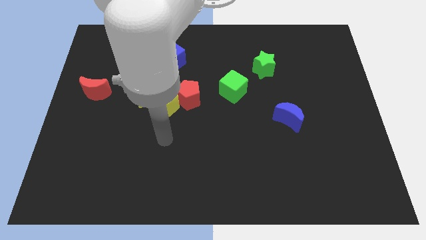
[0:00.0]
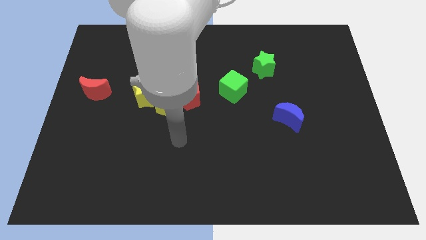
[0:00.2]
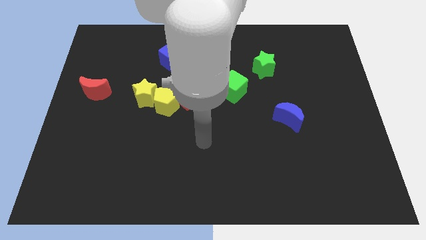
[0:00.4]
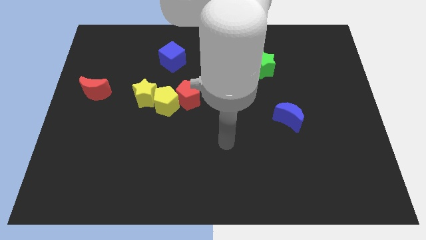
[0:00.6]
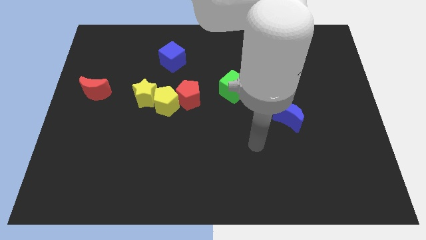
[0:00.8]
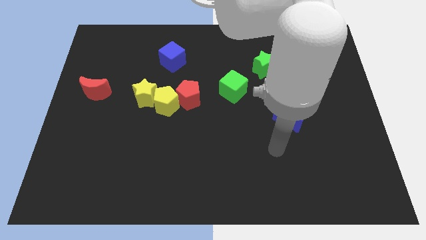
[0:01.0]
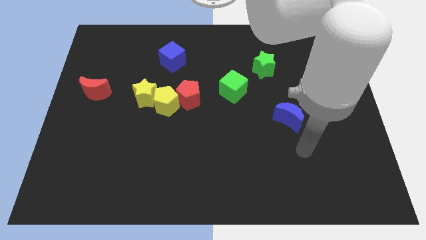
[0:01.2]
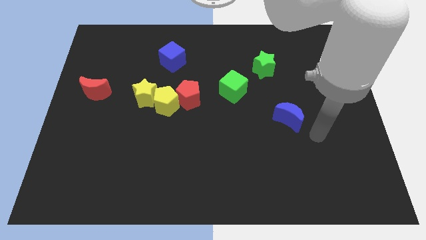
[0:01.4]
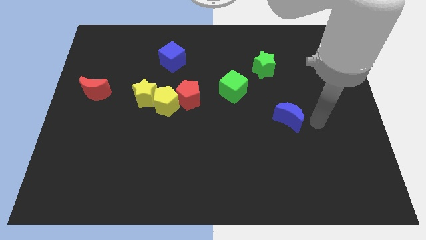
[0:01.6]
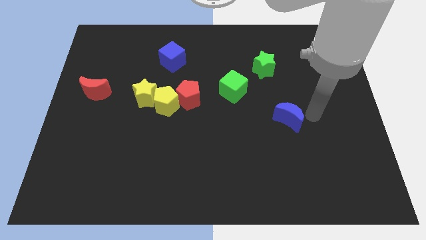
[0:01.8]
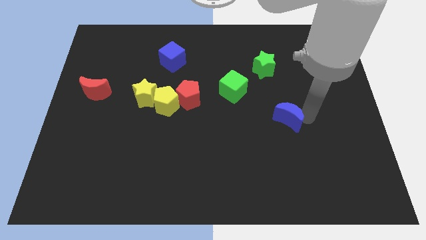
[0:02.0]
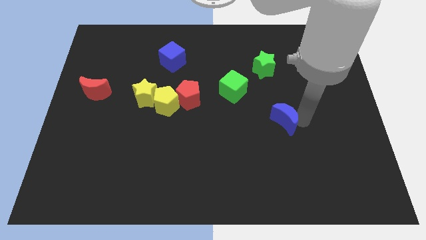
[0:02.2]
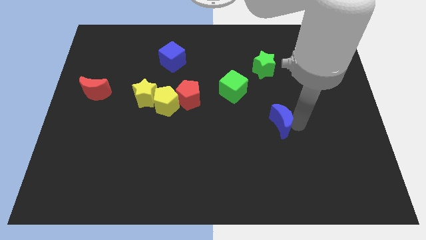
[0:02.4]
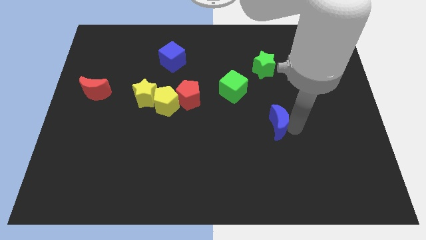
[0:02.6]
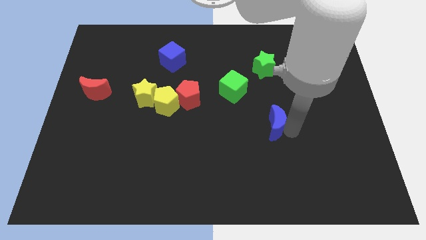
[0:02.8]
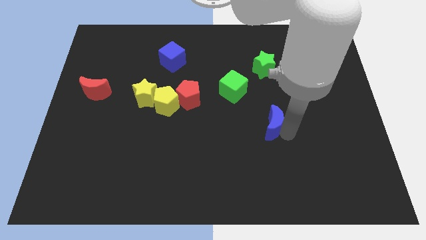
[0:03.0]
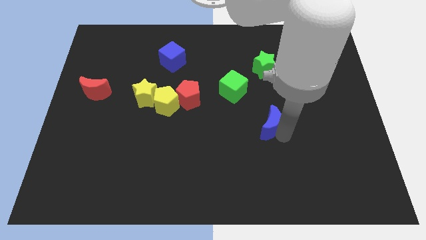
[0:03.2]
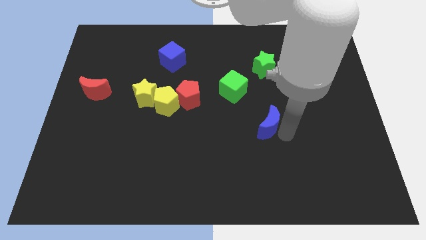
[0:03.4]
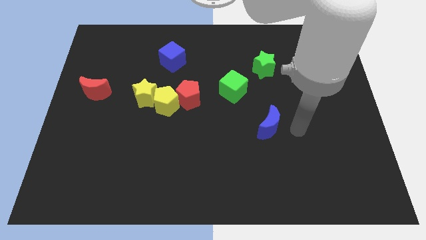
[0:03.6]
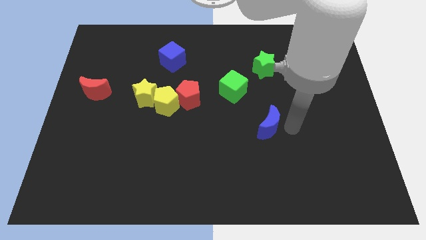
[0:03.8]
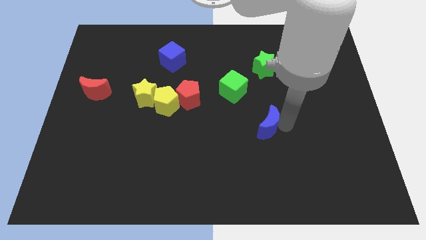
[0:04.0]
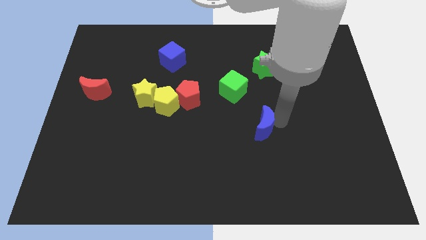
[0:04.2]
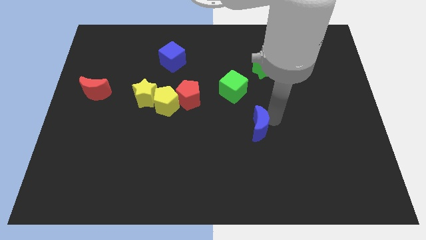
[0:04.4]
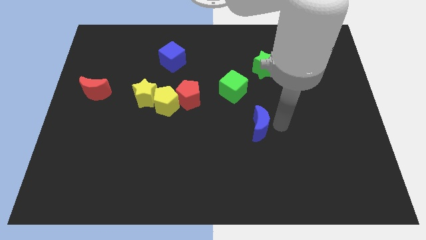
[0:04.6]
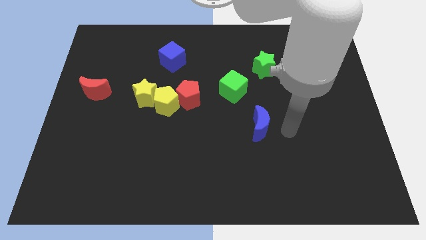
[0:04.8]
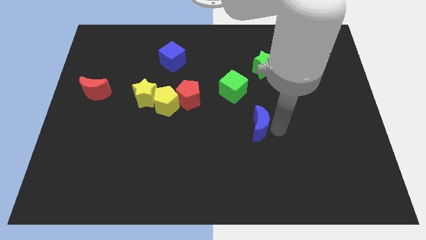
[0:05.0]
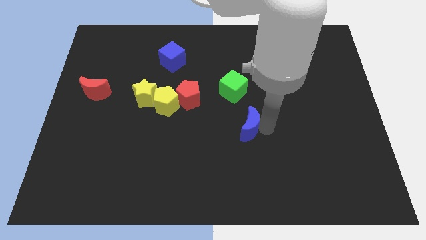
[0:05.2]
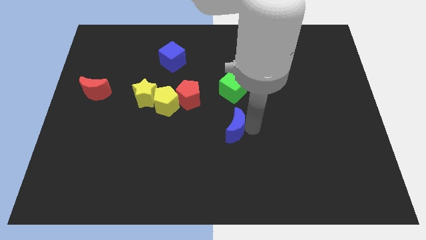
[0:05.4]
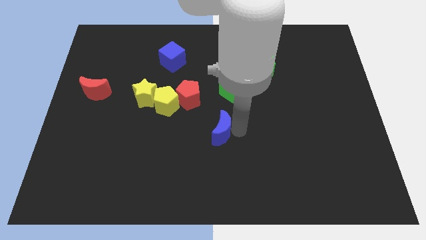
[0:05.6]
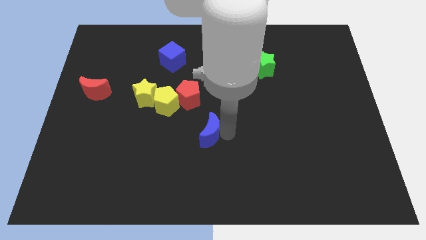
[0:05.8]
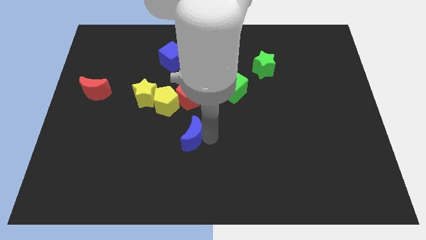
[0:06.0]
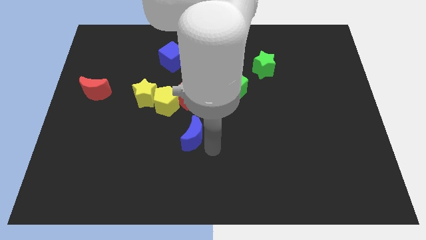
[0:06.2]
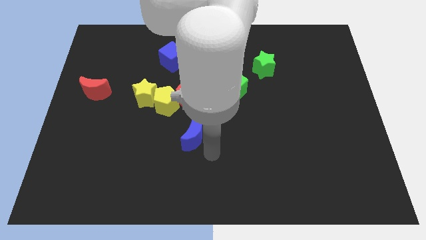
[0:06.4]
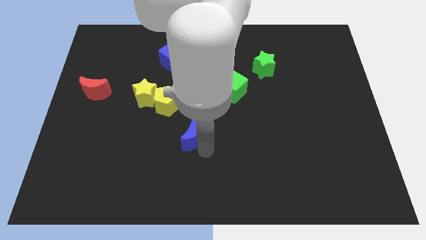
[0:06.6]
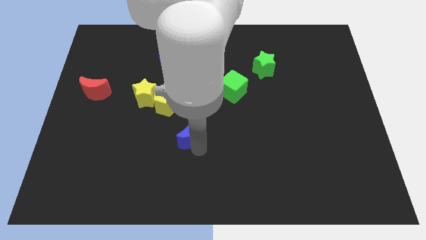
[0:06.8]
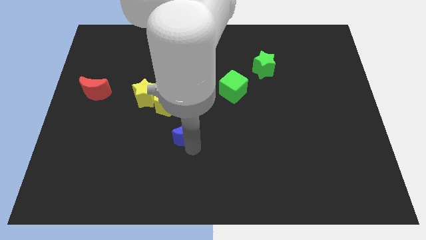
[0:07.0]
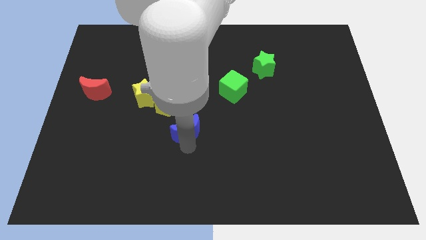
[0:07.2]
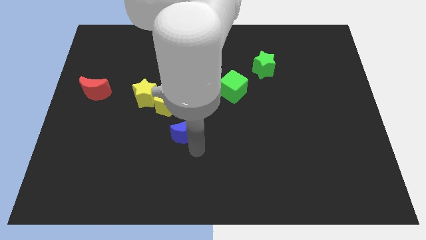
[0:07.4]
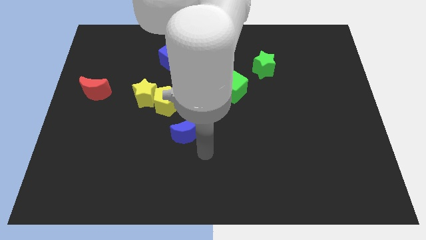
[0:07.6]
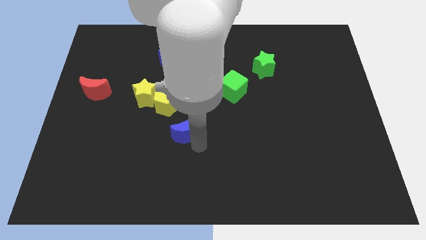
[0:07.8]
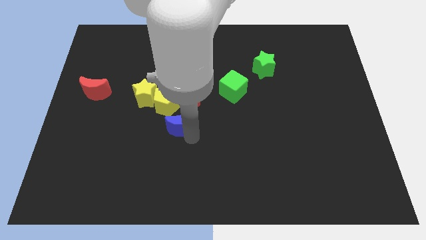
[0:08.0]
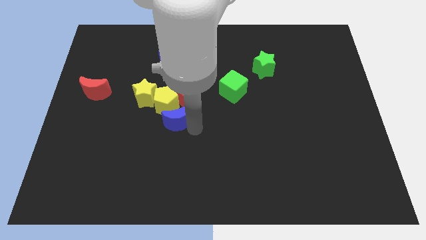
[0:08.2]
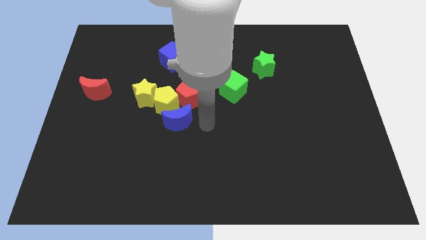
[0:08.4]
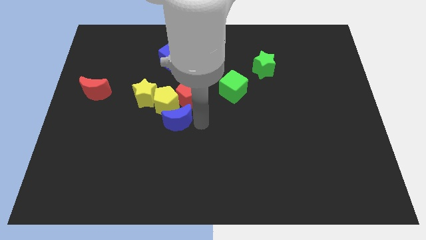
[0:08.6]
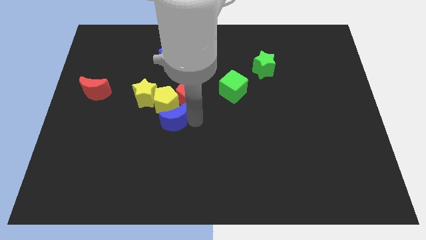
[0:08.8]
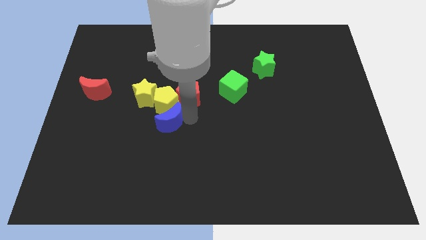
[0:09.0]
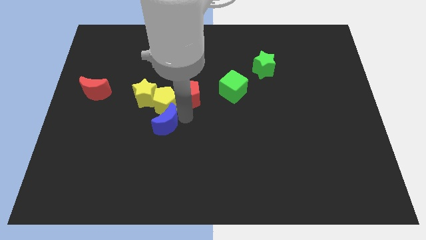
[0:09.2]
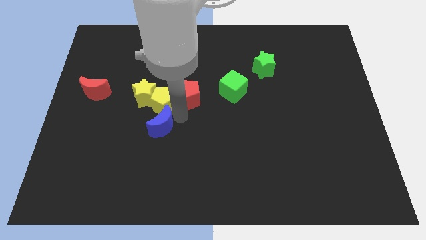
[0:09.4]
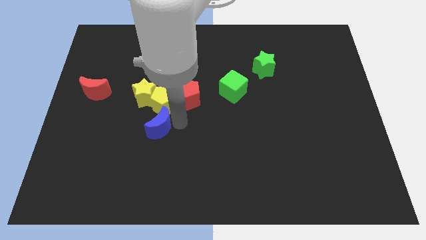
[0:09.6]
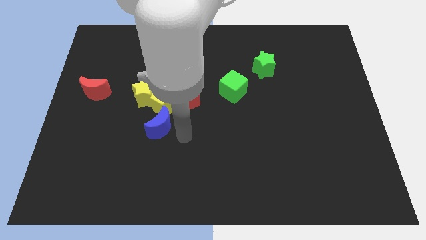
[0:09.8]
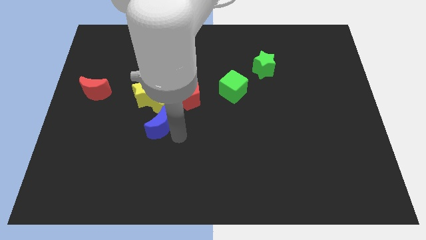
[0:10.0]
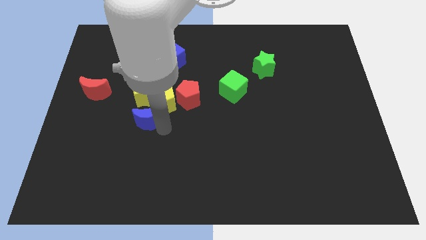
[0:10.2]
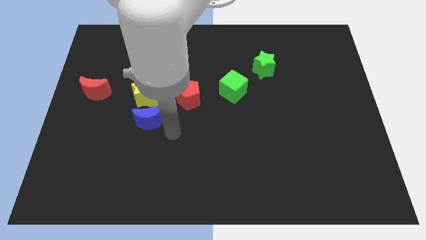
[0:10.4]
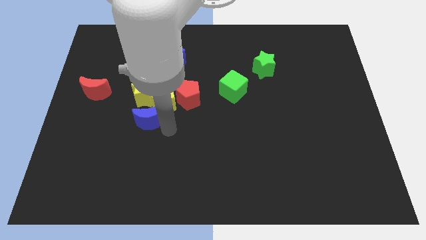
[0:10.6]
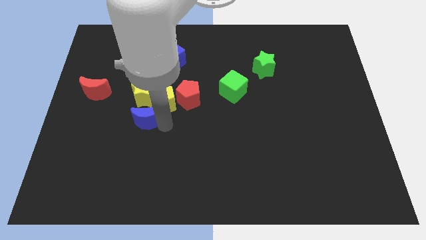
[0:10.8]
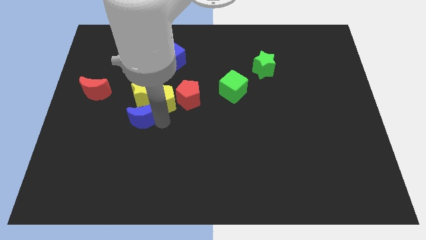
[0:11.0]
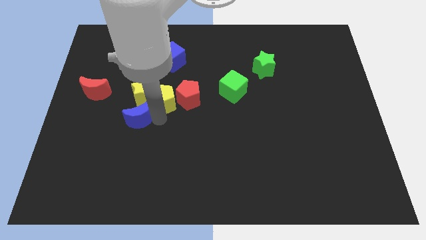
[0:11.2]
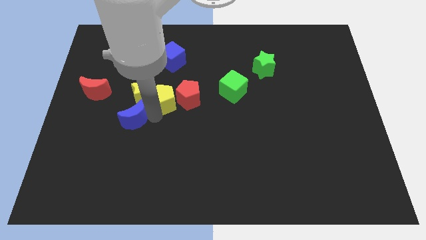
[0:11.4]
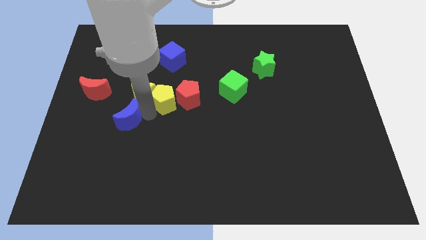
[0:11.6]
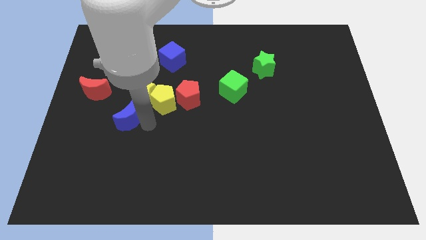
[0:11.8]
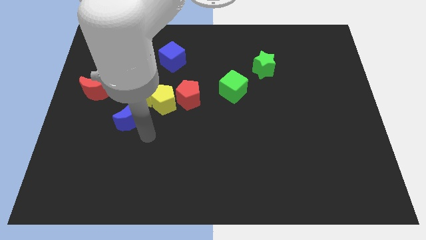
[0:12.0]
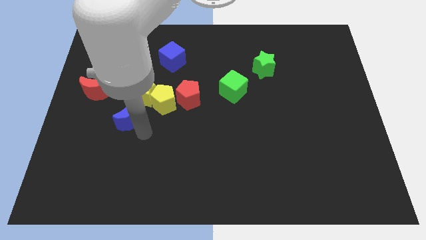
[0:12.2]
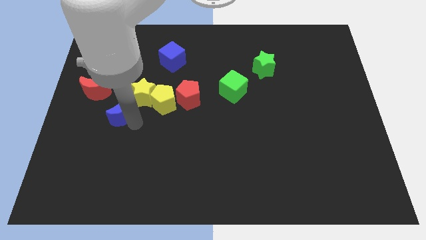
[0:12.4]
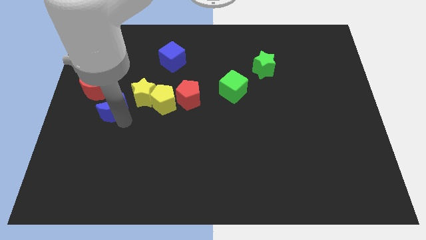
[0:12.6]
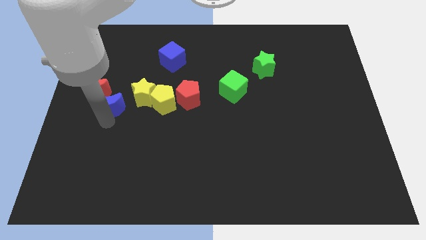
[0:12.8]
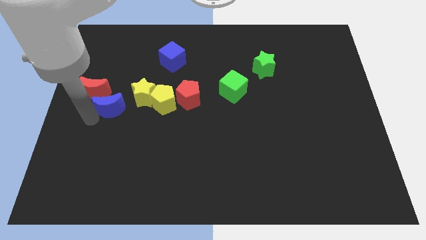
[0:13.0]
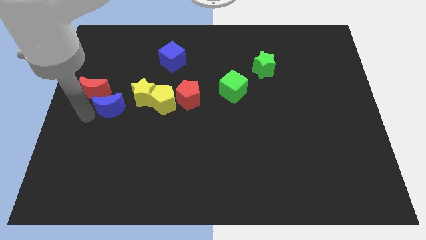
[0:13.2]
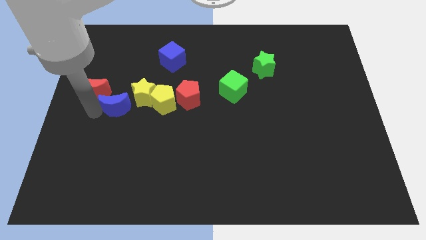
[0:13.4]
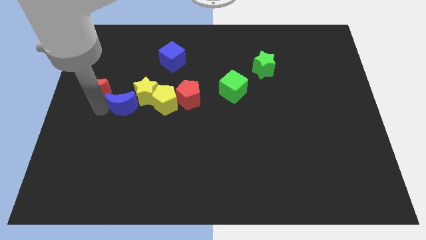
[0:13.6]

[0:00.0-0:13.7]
put the blue moon just left of the red pentagon
